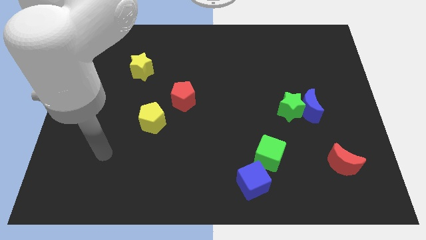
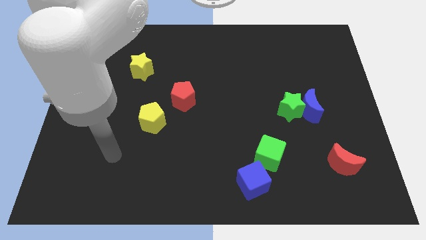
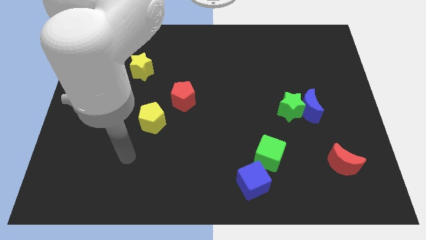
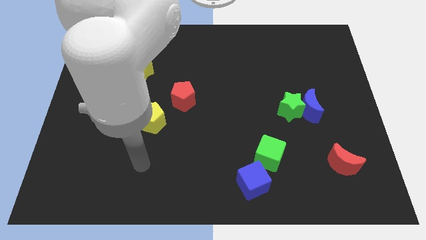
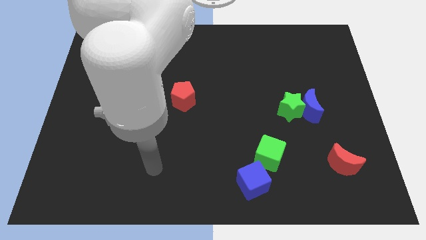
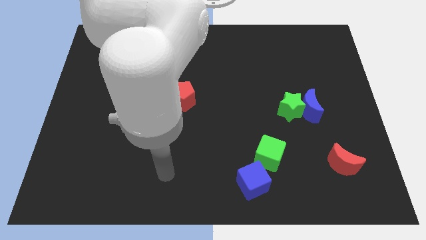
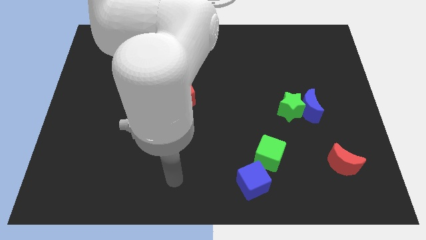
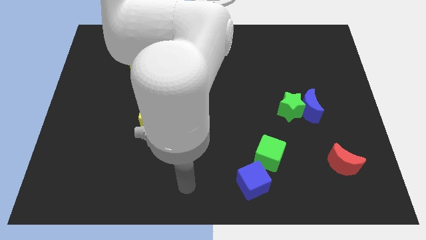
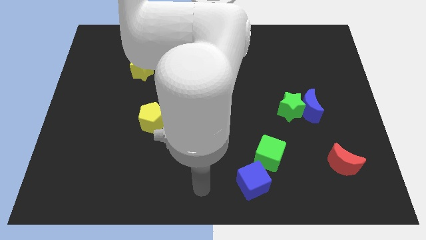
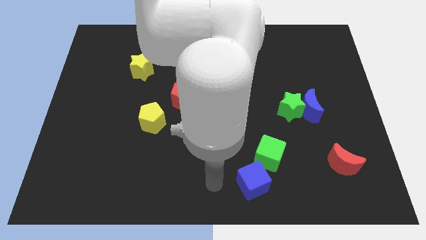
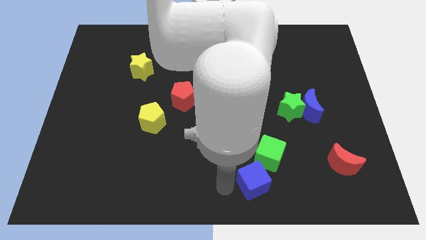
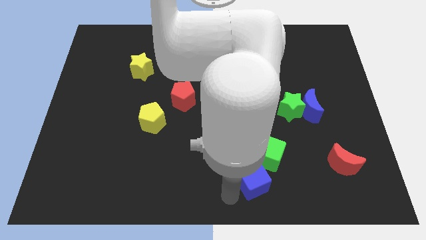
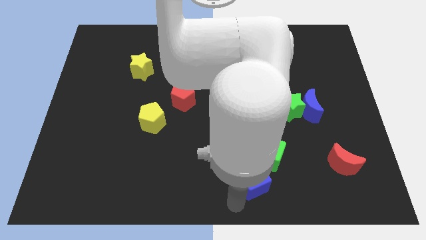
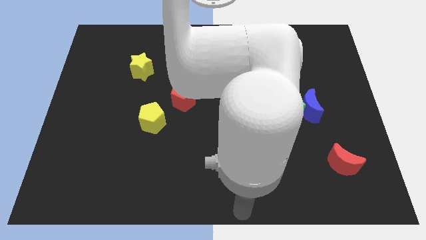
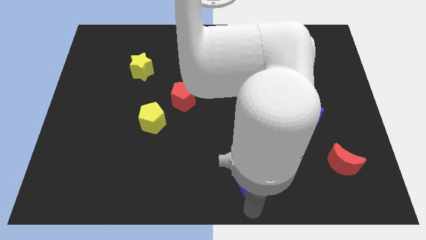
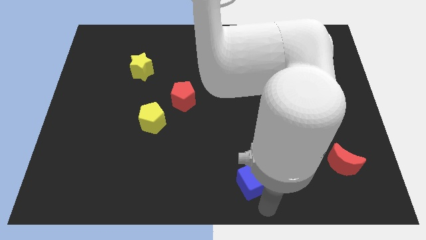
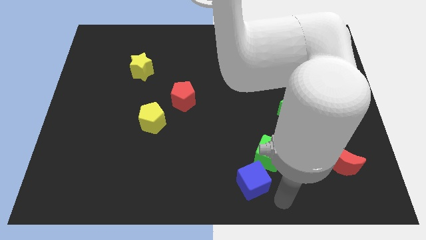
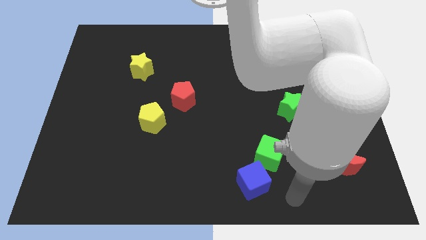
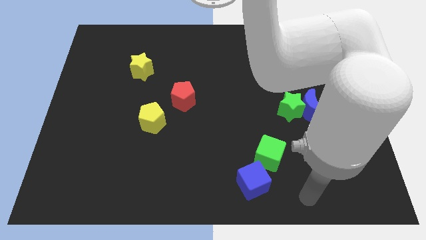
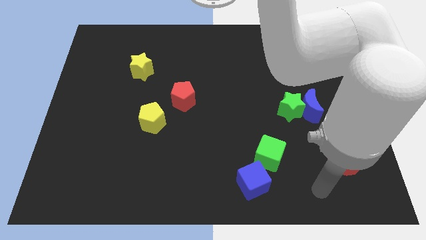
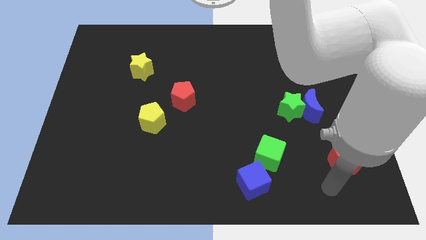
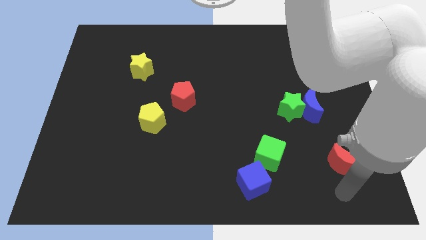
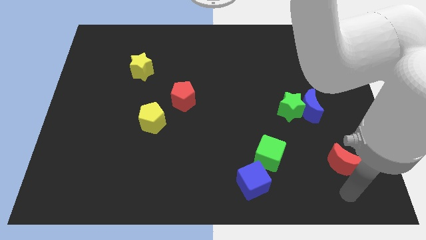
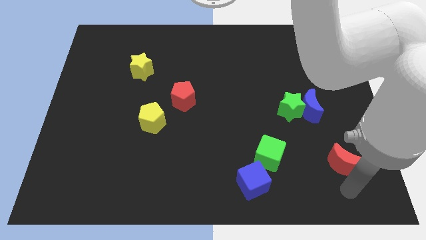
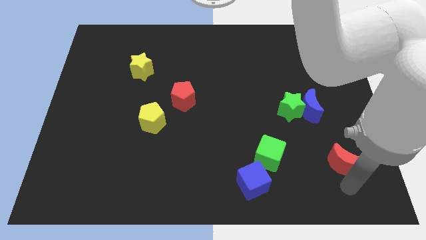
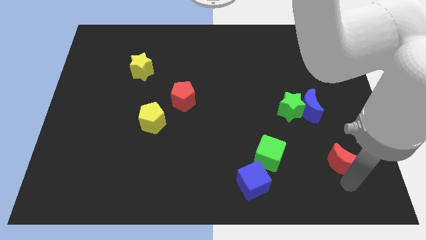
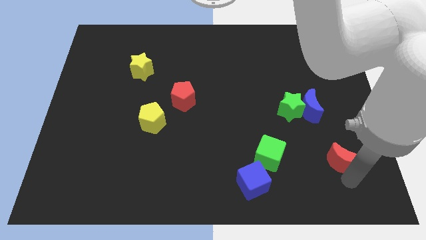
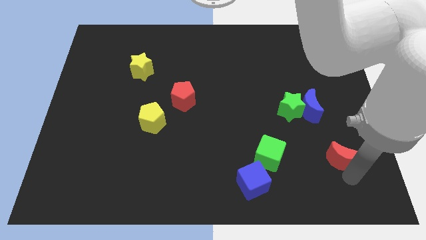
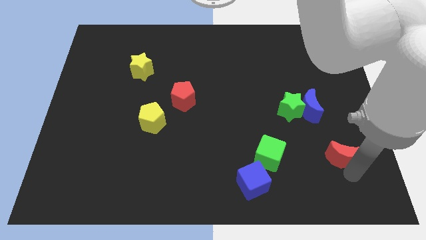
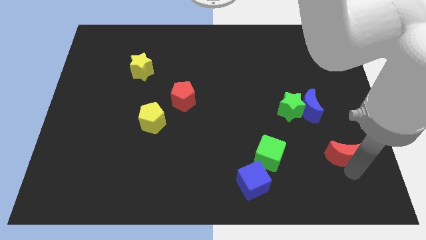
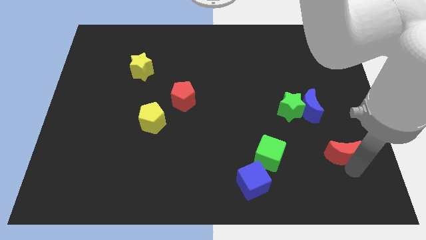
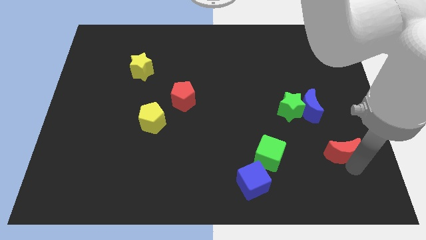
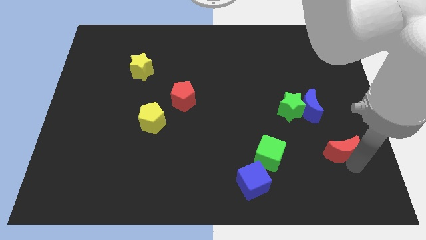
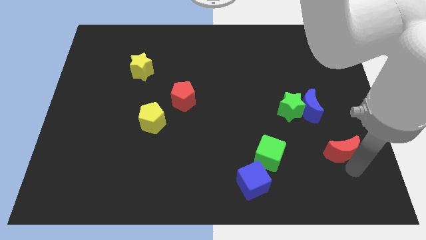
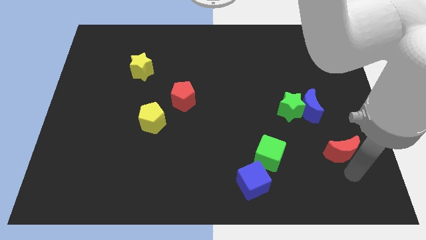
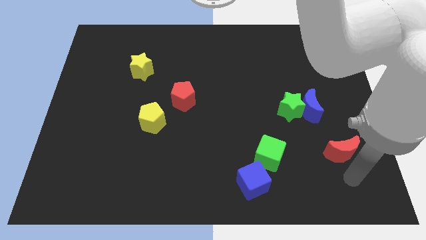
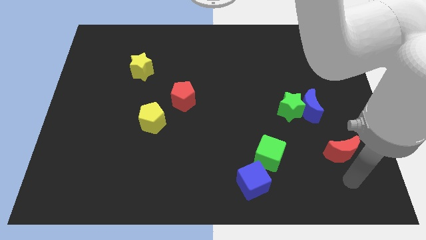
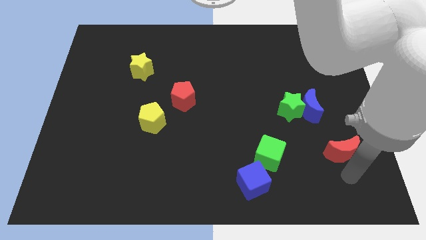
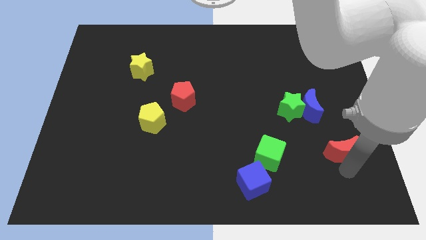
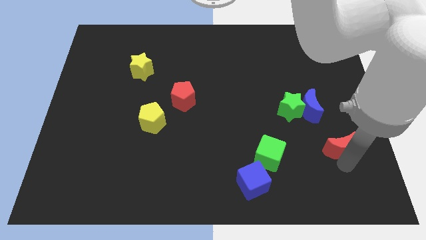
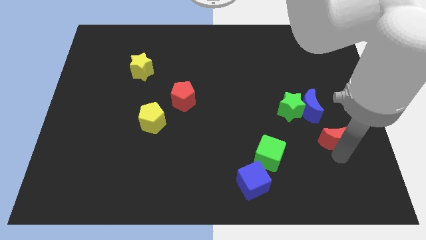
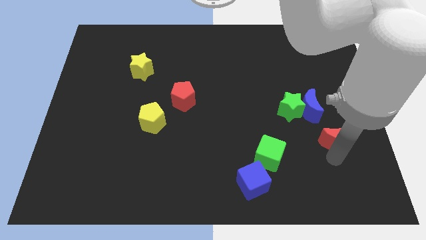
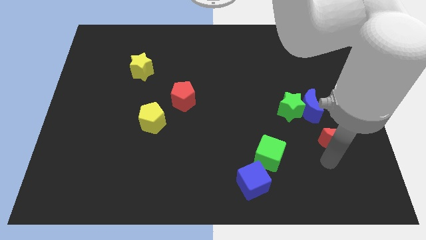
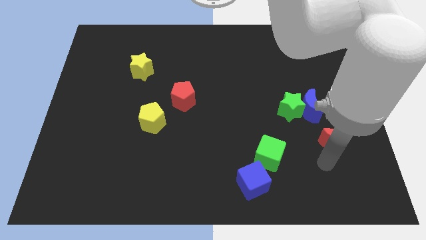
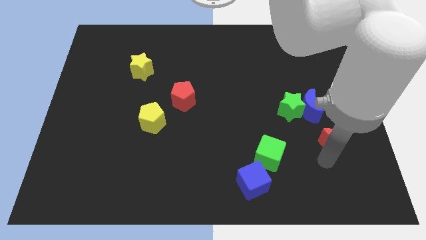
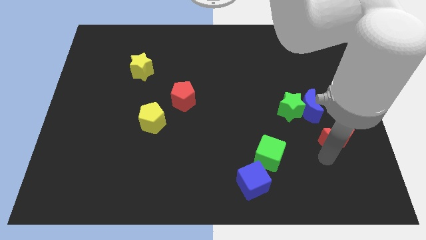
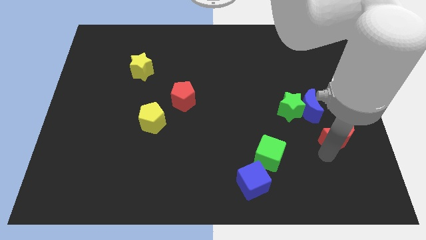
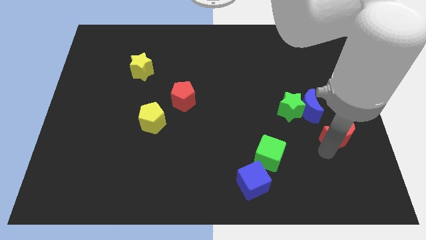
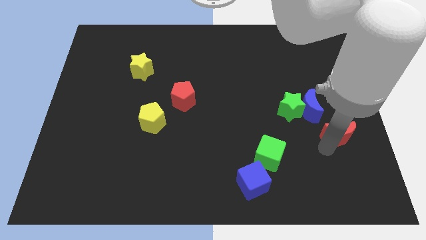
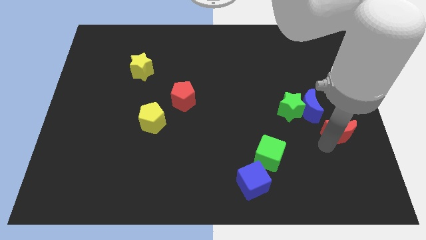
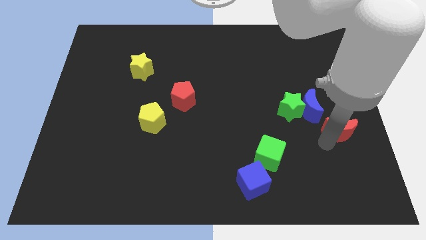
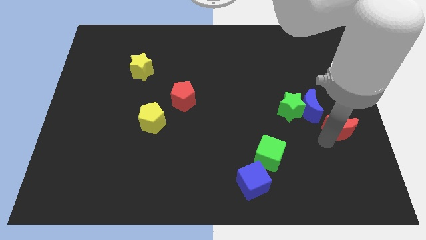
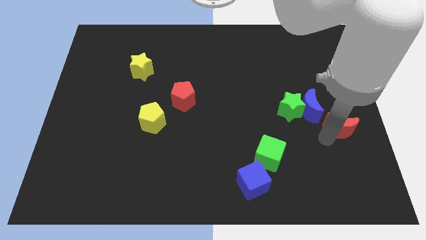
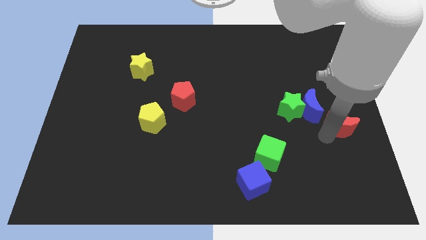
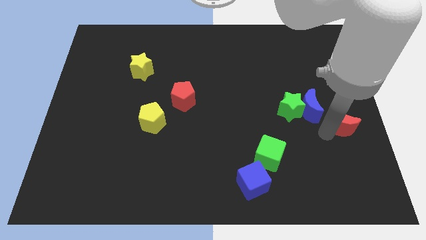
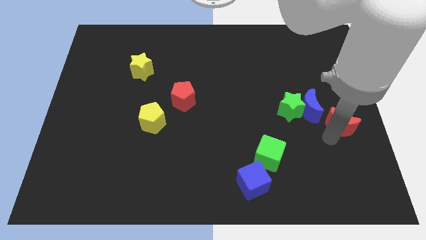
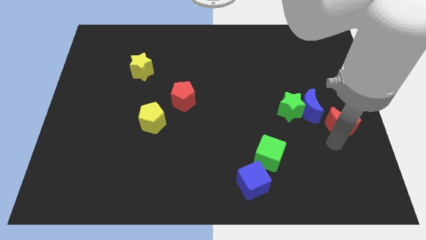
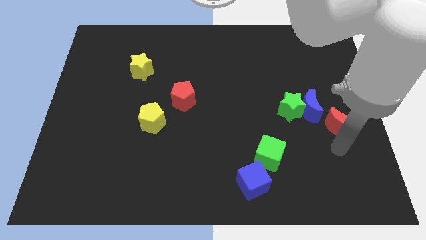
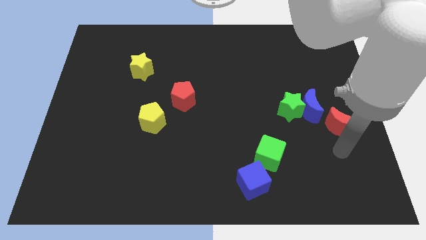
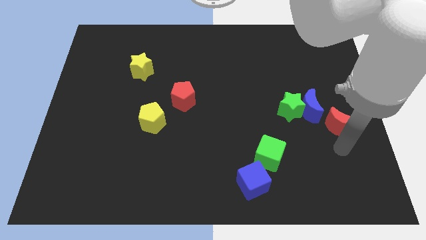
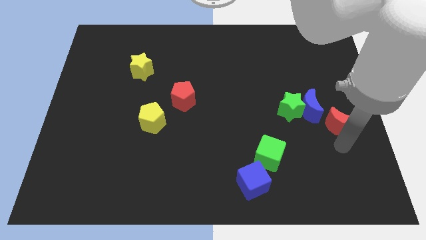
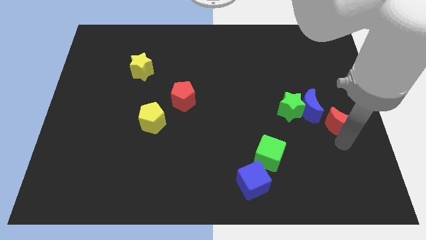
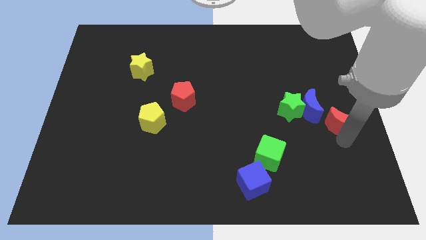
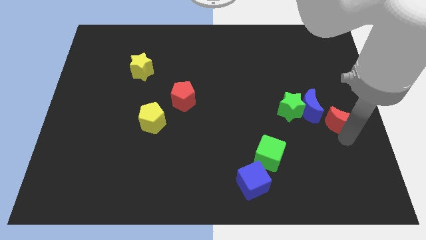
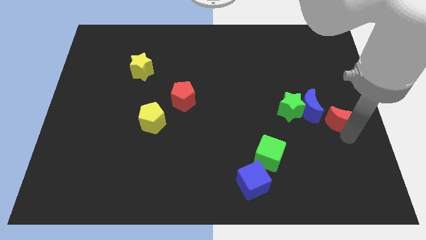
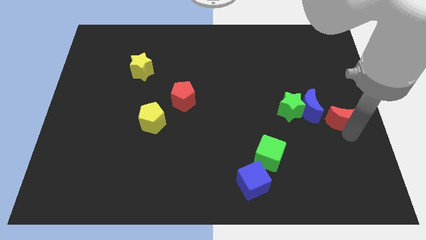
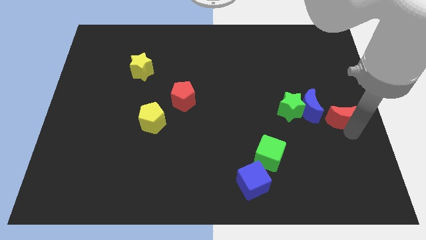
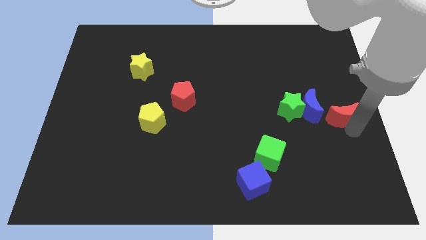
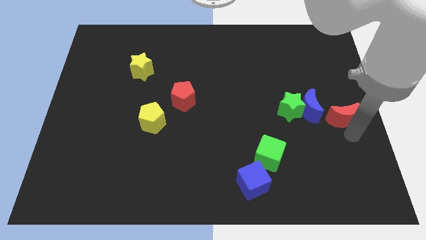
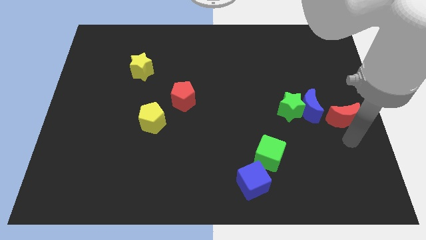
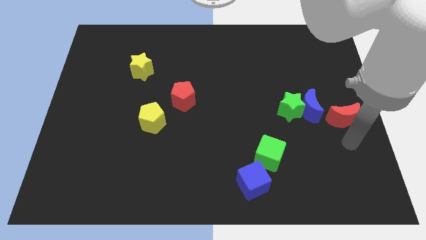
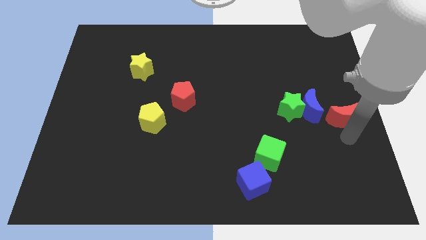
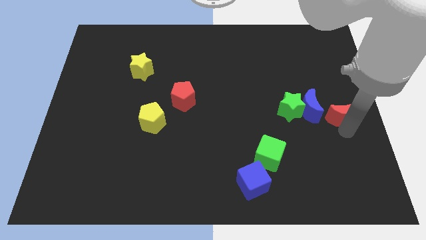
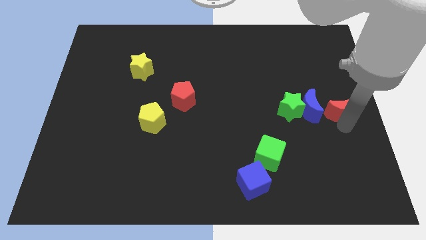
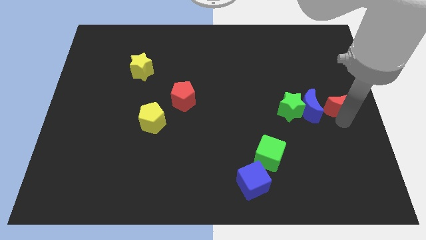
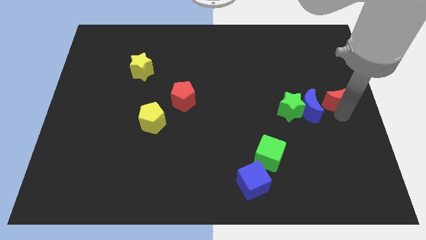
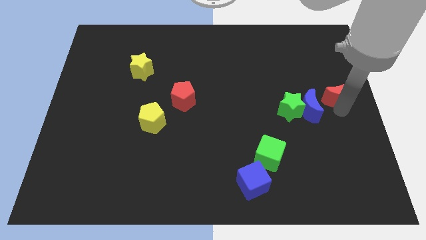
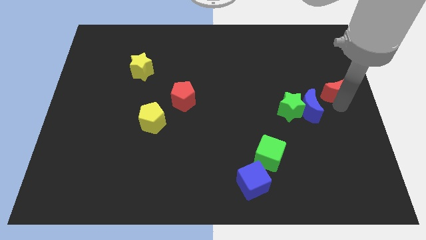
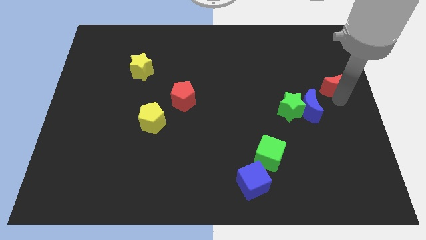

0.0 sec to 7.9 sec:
push the red moon upwards

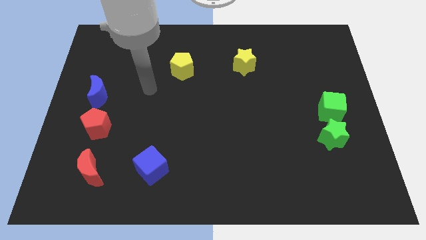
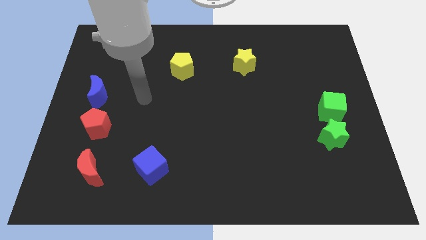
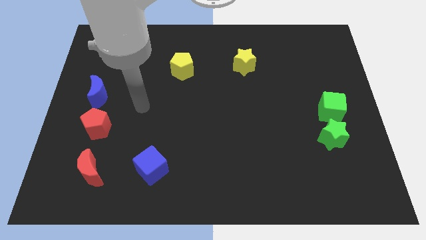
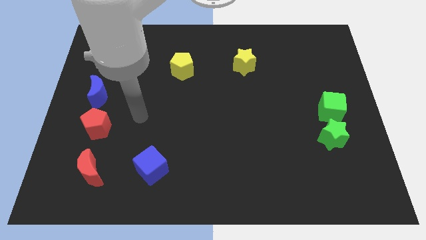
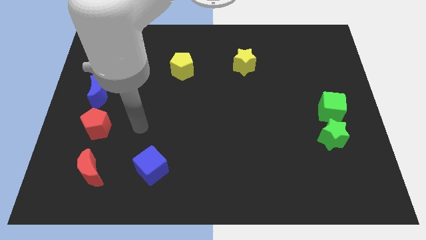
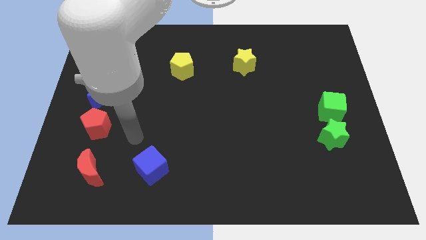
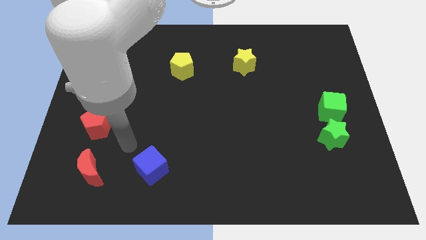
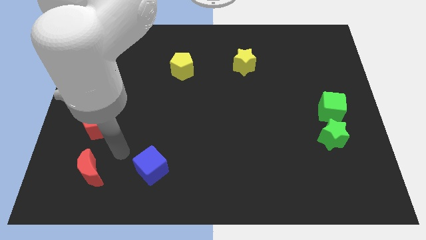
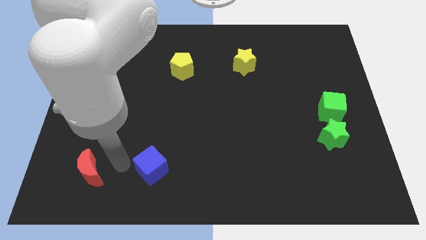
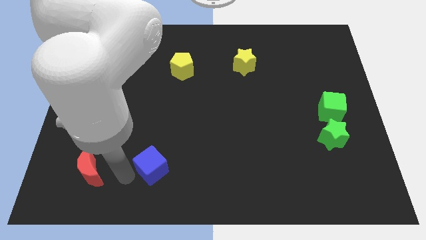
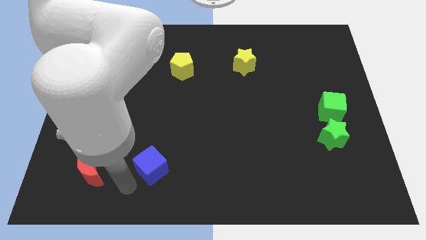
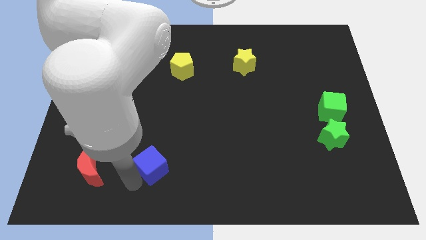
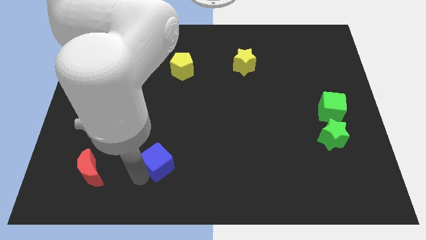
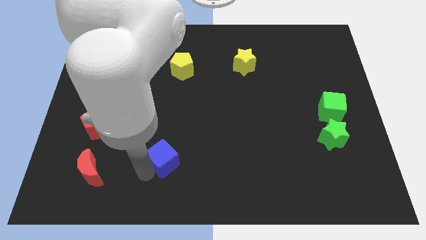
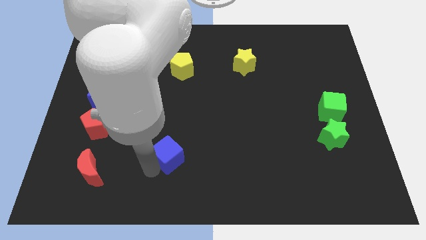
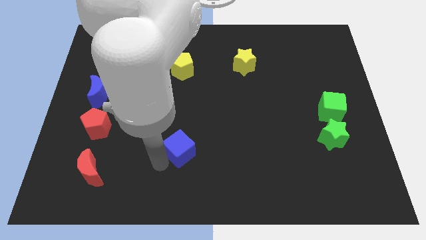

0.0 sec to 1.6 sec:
push the blue cube a little bit diagonally upwards and right
